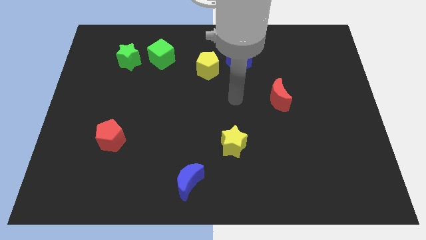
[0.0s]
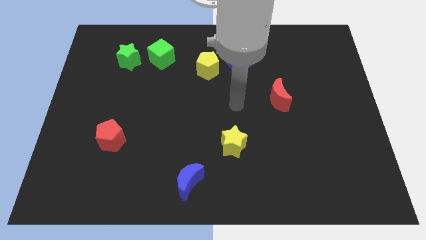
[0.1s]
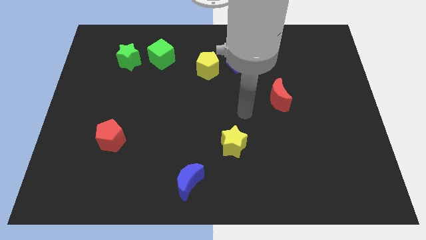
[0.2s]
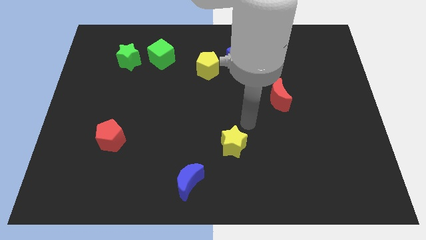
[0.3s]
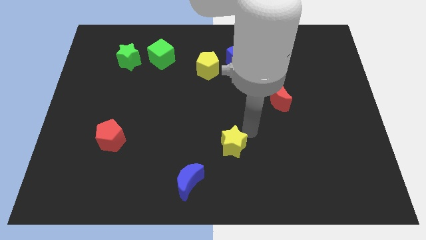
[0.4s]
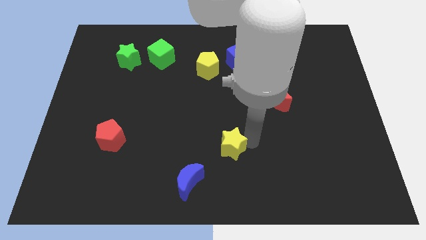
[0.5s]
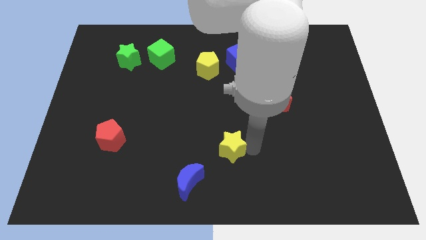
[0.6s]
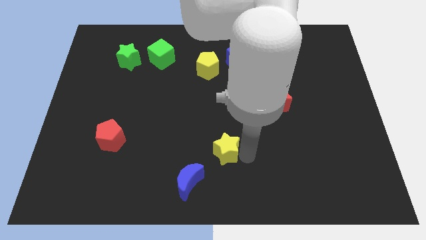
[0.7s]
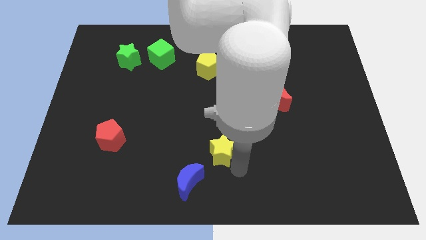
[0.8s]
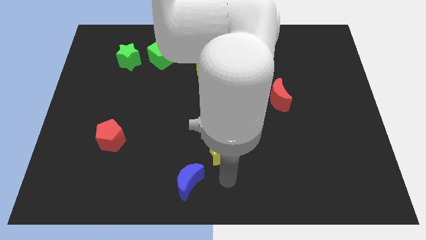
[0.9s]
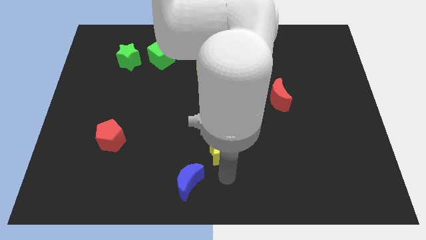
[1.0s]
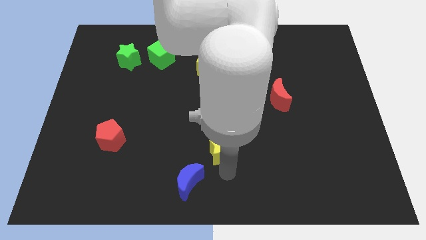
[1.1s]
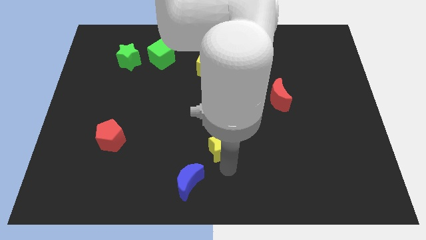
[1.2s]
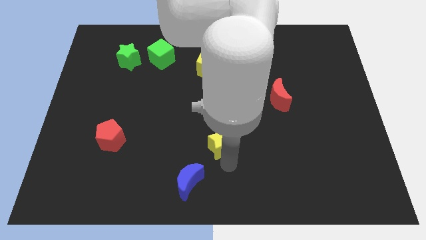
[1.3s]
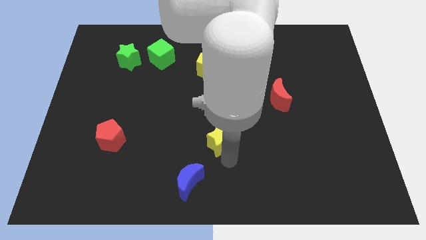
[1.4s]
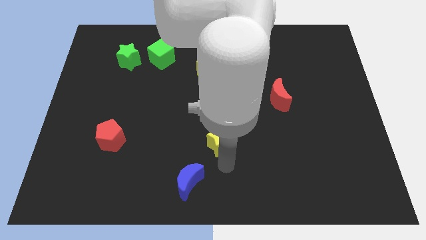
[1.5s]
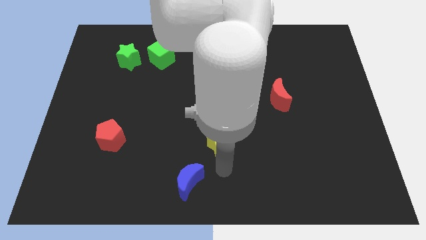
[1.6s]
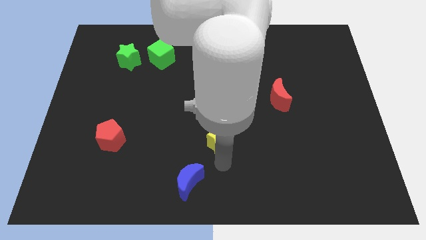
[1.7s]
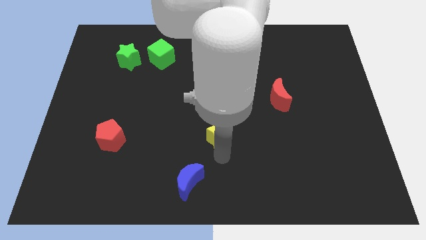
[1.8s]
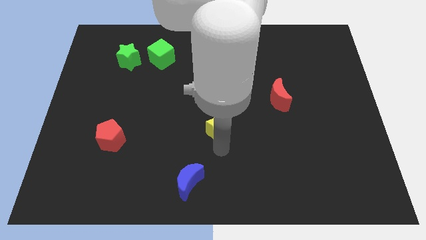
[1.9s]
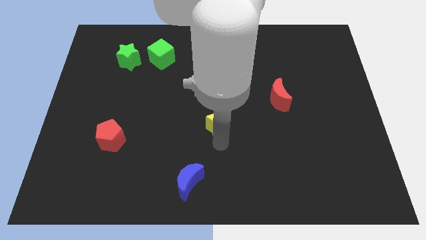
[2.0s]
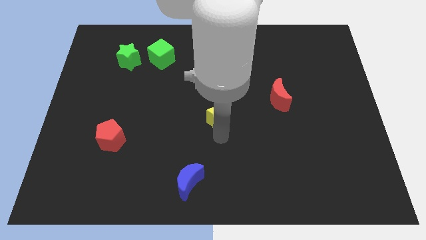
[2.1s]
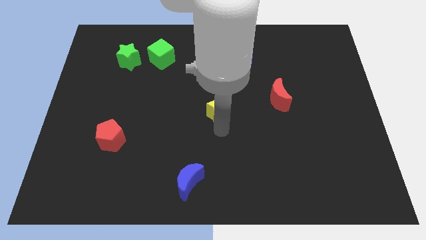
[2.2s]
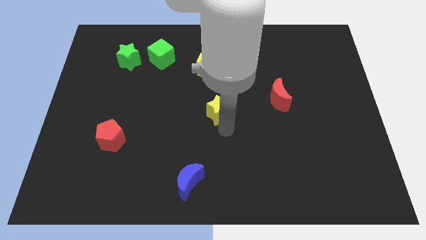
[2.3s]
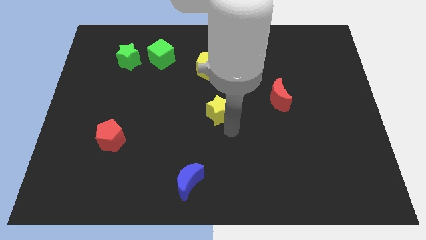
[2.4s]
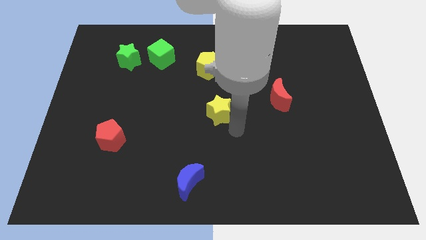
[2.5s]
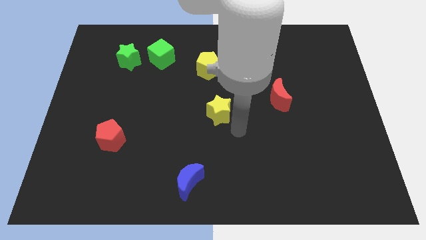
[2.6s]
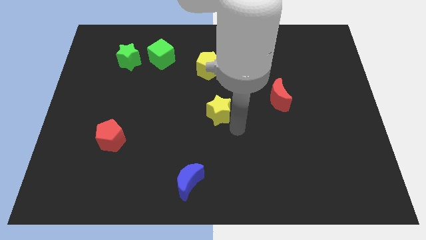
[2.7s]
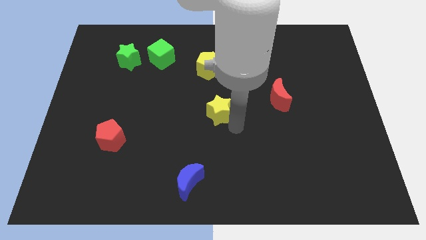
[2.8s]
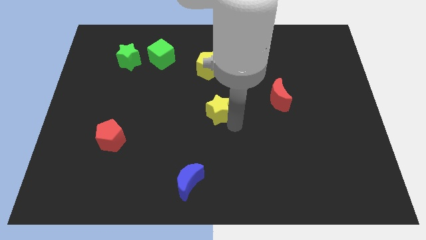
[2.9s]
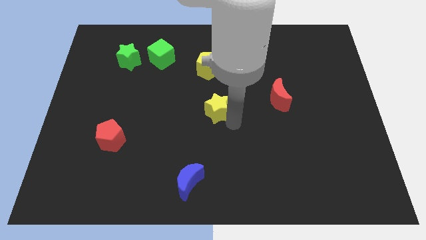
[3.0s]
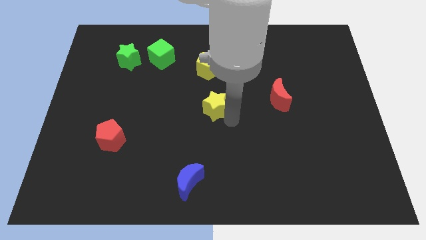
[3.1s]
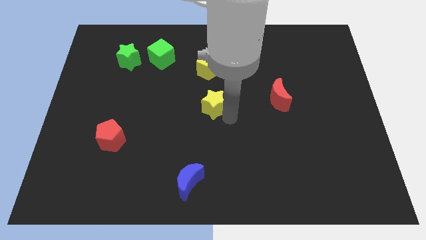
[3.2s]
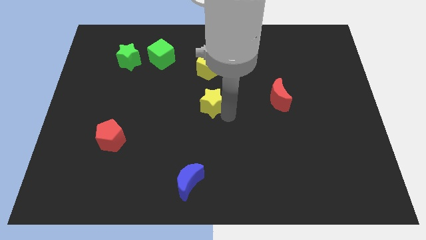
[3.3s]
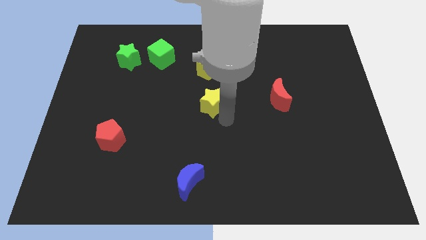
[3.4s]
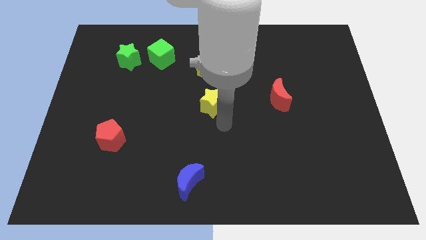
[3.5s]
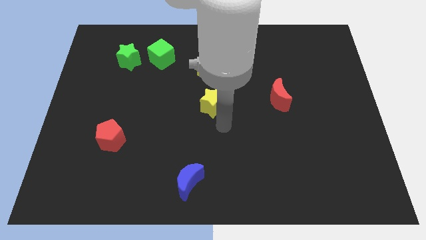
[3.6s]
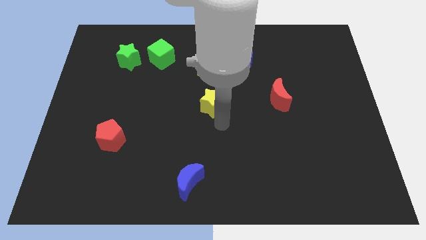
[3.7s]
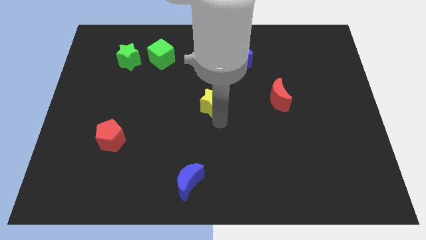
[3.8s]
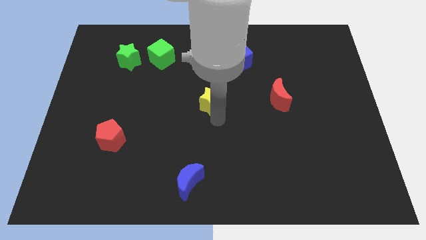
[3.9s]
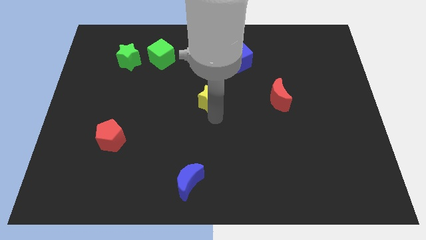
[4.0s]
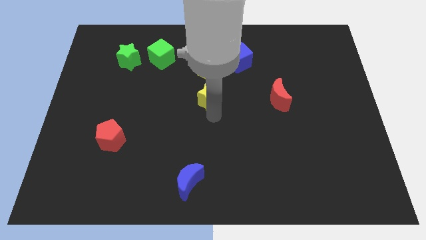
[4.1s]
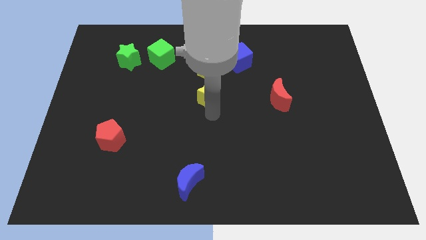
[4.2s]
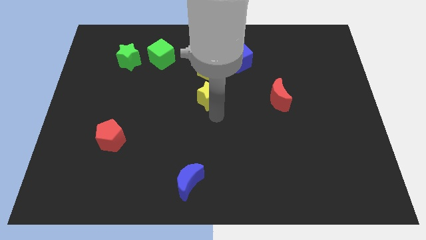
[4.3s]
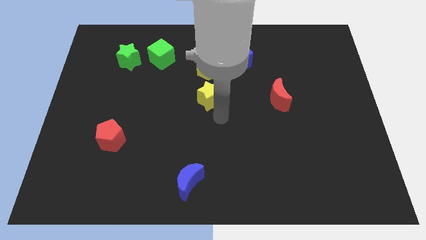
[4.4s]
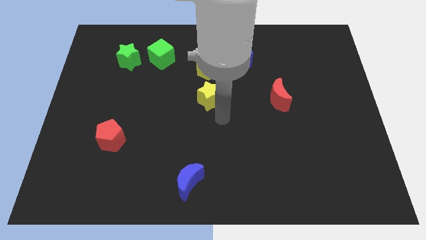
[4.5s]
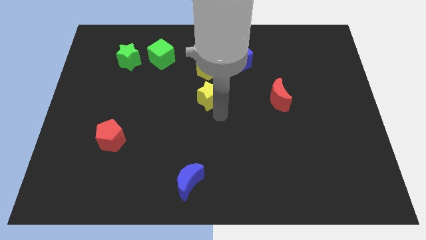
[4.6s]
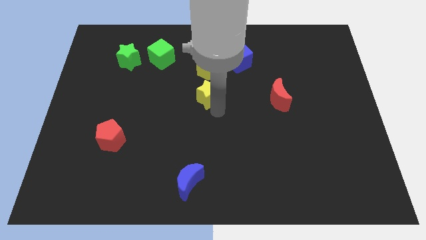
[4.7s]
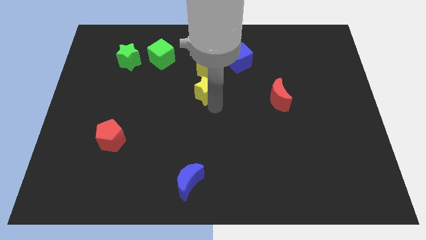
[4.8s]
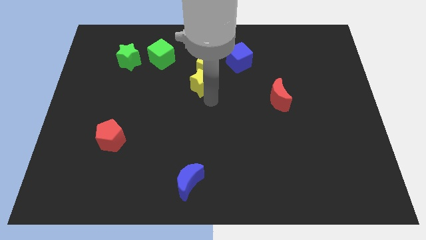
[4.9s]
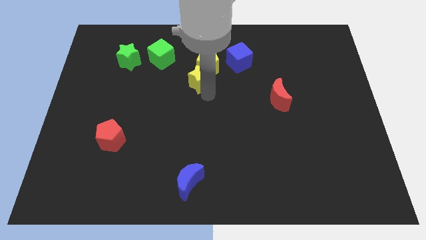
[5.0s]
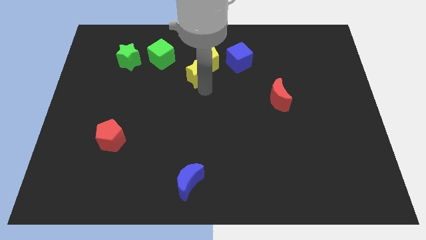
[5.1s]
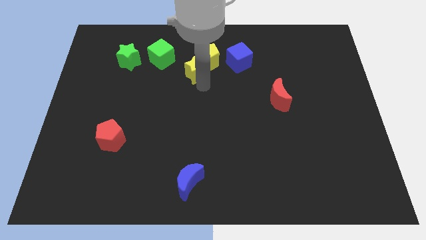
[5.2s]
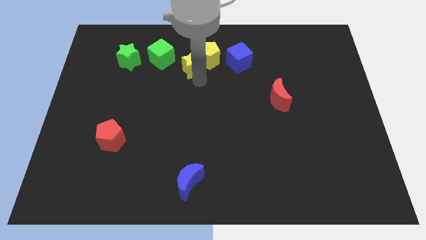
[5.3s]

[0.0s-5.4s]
move the yellow star right of the green cube
